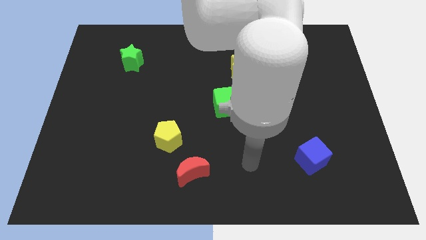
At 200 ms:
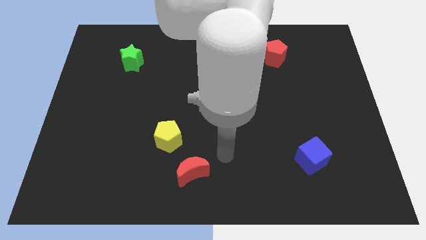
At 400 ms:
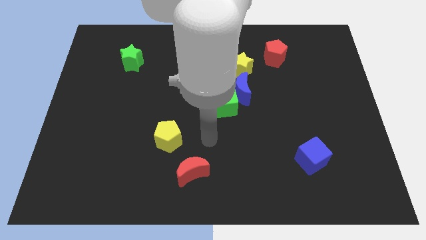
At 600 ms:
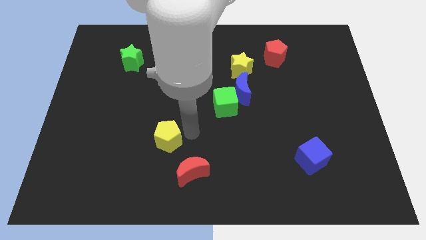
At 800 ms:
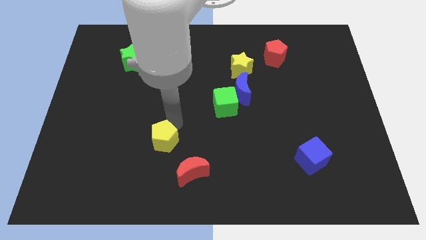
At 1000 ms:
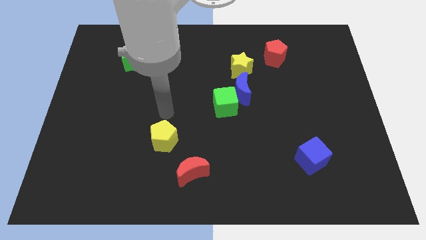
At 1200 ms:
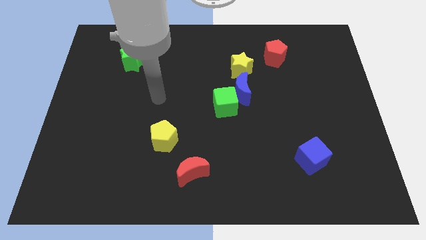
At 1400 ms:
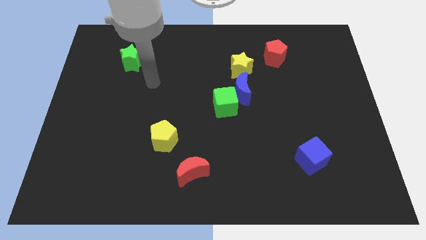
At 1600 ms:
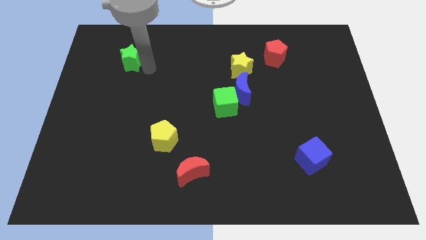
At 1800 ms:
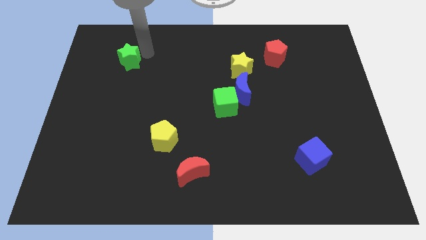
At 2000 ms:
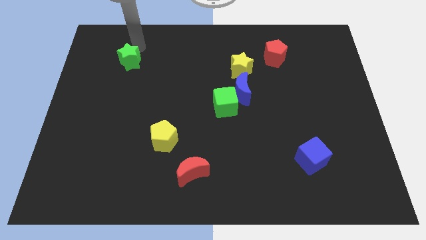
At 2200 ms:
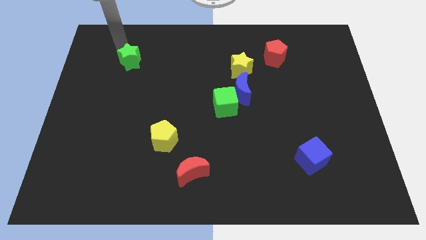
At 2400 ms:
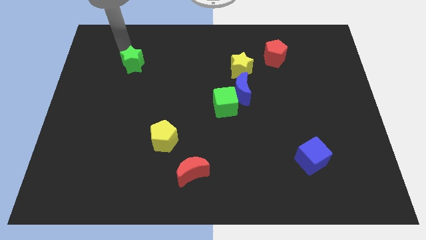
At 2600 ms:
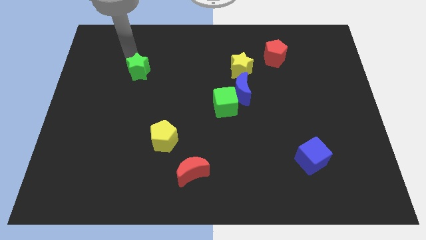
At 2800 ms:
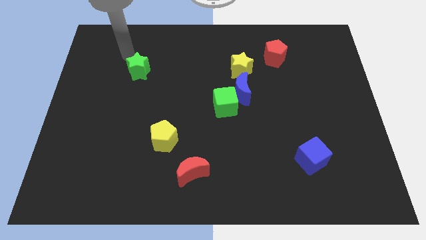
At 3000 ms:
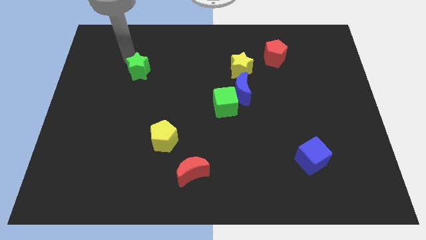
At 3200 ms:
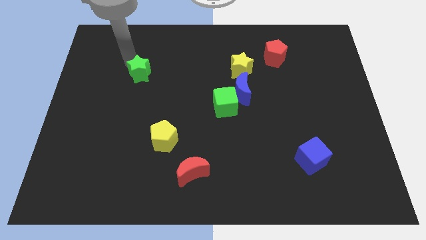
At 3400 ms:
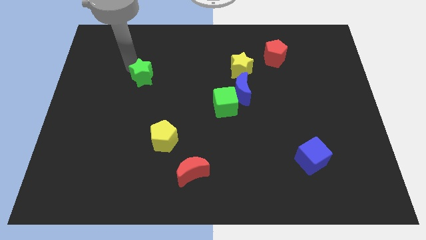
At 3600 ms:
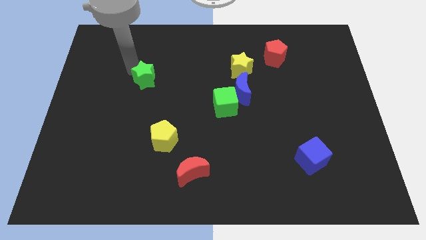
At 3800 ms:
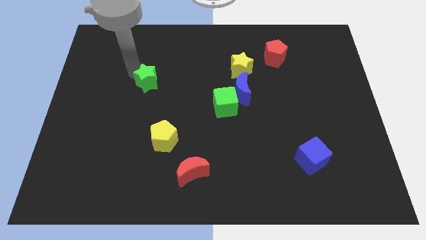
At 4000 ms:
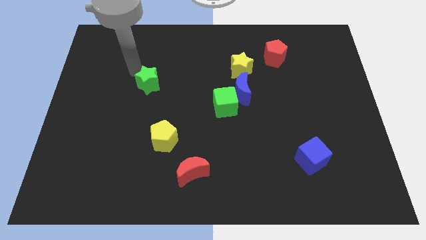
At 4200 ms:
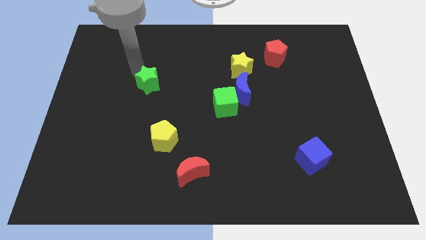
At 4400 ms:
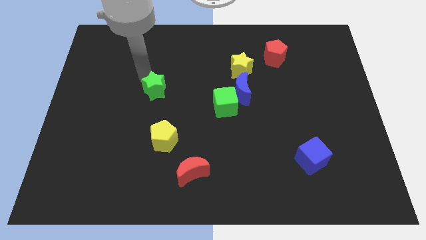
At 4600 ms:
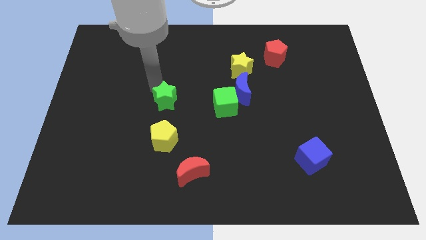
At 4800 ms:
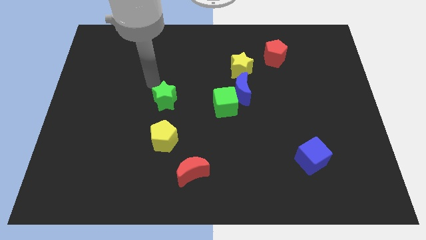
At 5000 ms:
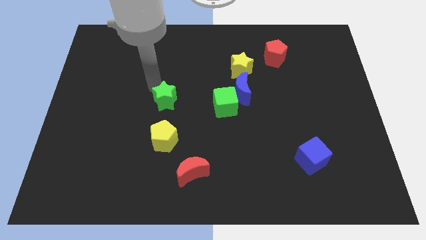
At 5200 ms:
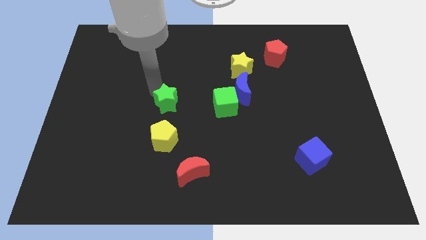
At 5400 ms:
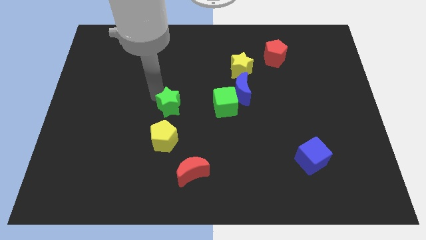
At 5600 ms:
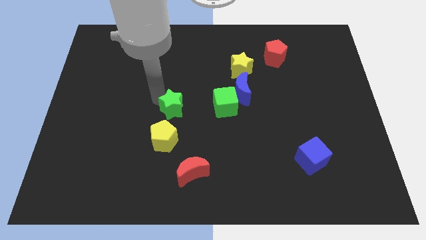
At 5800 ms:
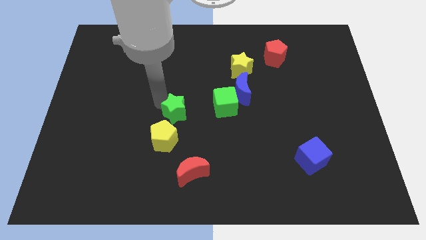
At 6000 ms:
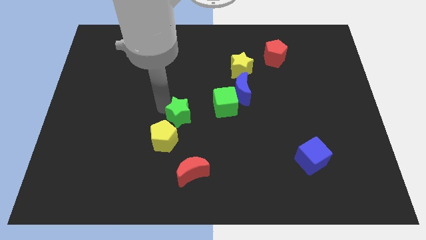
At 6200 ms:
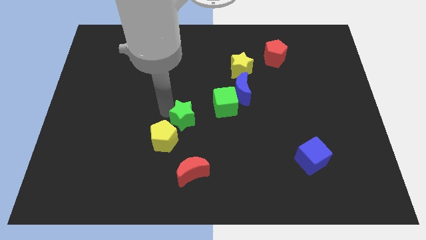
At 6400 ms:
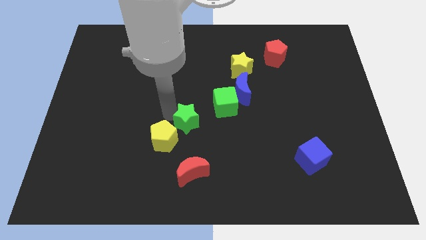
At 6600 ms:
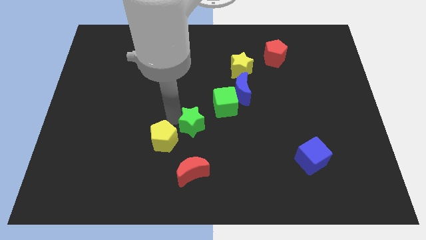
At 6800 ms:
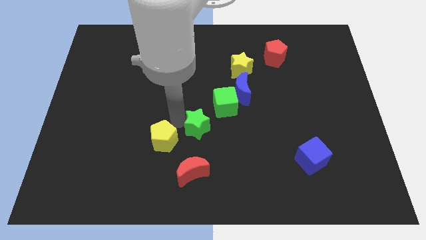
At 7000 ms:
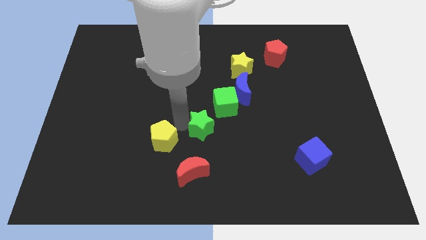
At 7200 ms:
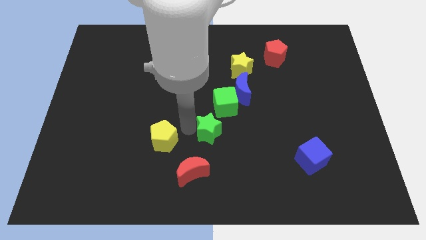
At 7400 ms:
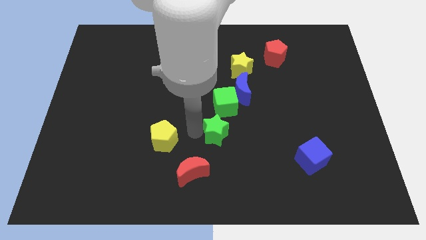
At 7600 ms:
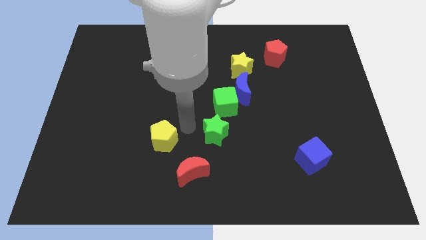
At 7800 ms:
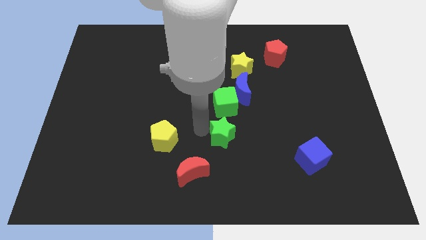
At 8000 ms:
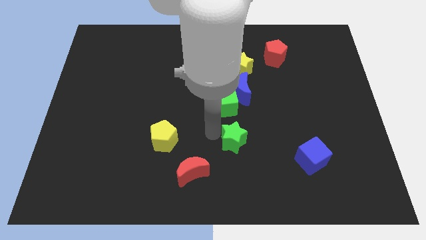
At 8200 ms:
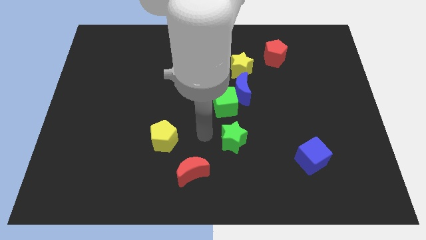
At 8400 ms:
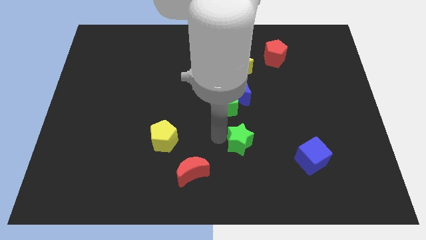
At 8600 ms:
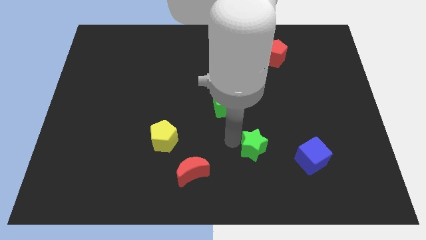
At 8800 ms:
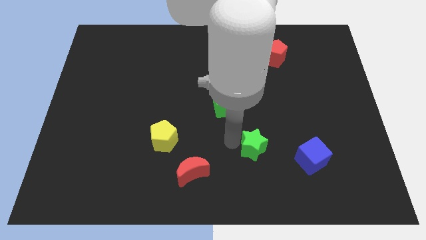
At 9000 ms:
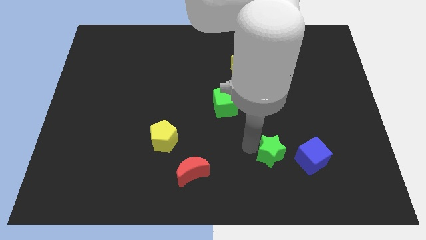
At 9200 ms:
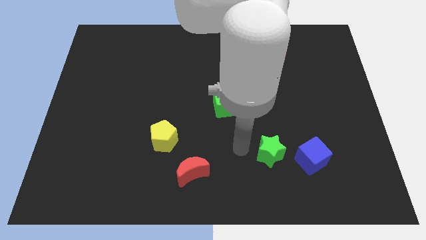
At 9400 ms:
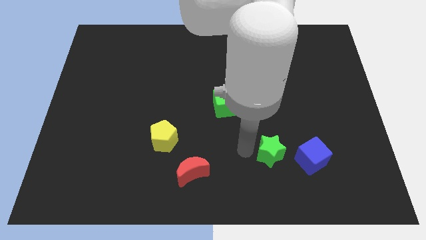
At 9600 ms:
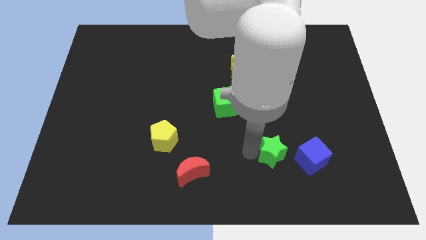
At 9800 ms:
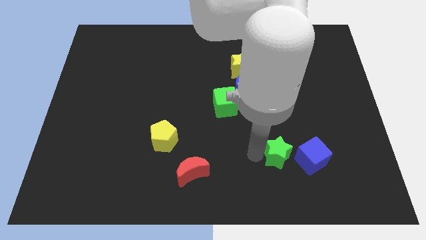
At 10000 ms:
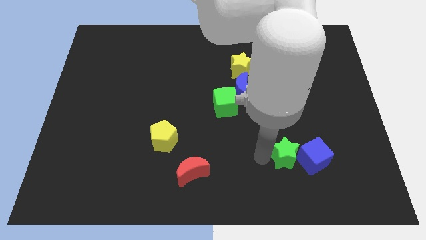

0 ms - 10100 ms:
push the green star close to the blue cube

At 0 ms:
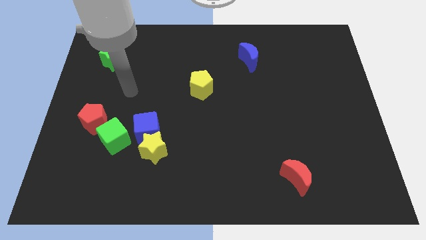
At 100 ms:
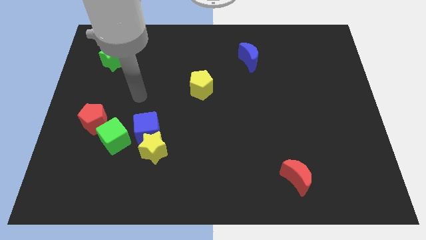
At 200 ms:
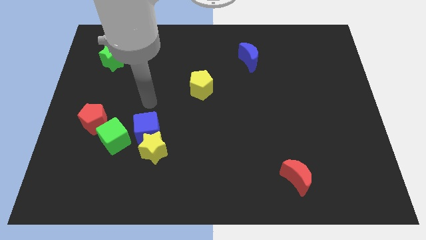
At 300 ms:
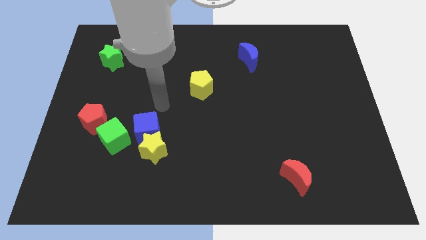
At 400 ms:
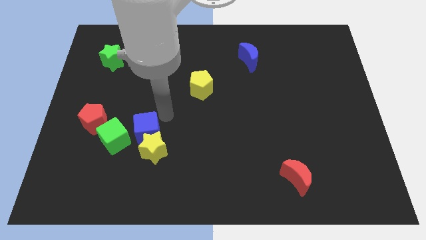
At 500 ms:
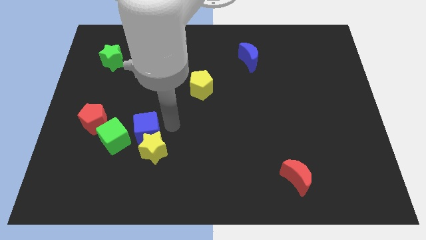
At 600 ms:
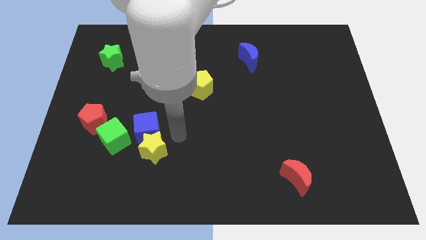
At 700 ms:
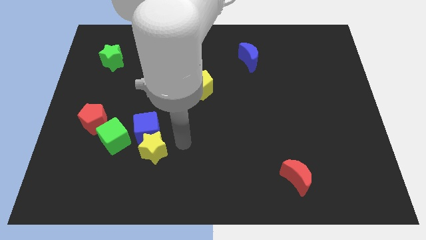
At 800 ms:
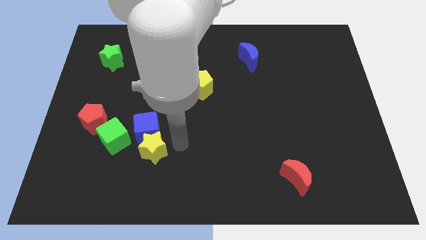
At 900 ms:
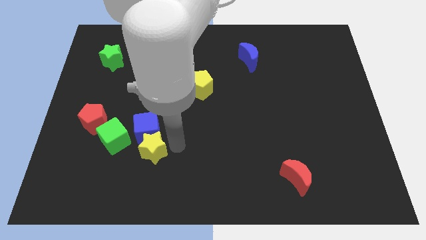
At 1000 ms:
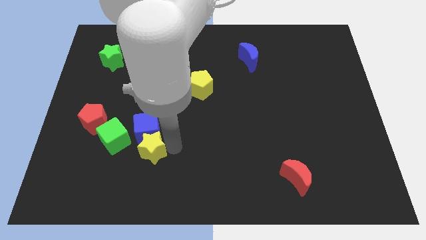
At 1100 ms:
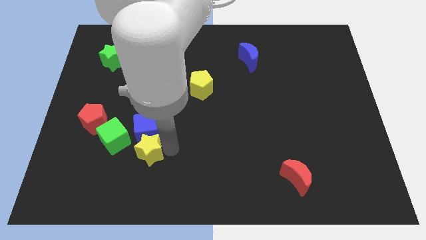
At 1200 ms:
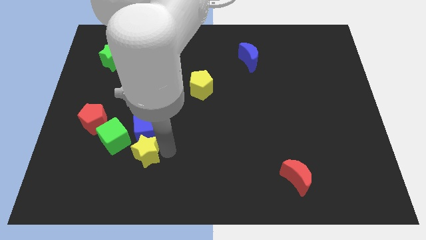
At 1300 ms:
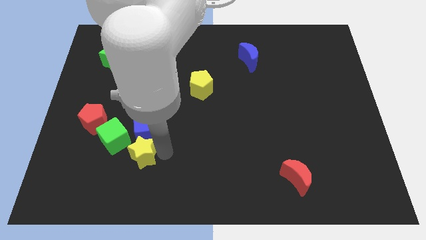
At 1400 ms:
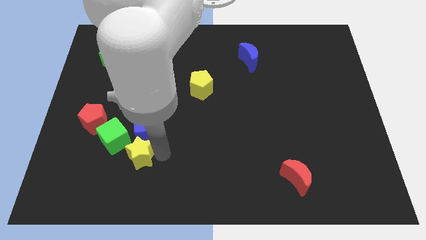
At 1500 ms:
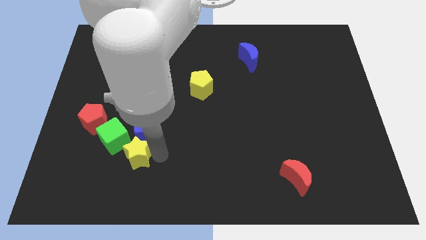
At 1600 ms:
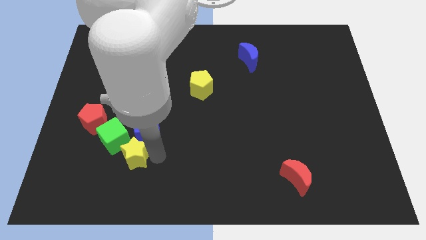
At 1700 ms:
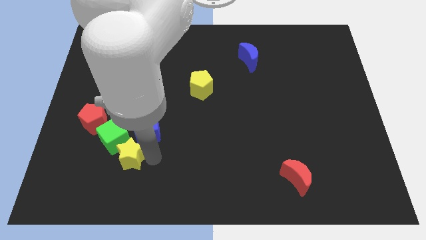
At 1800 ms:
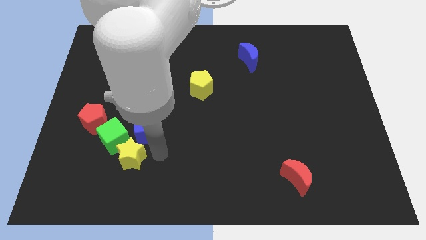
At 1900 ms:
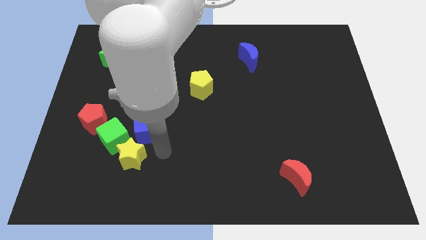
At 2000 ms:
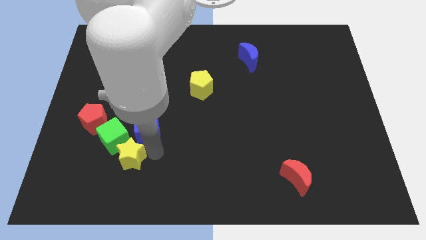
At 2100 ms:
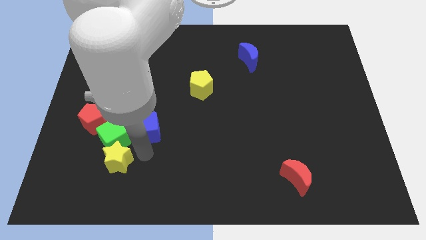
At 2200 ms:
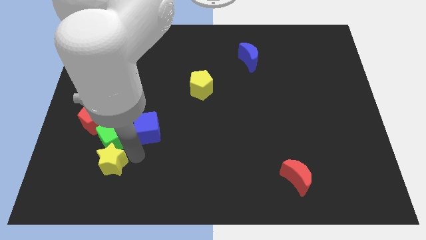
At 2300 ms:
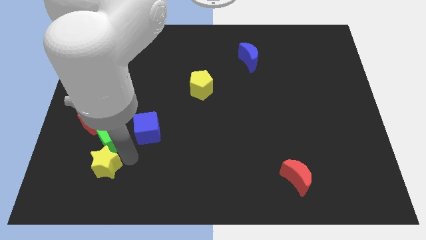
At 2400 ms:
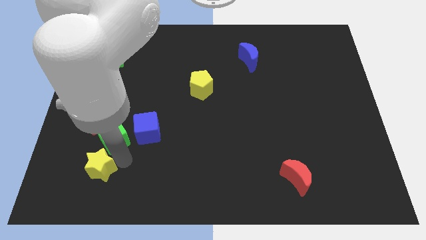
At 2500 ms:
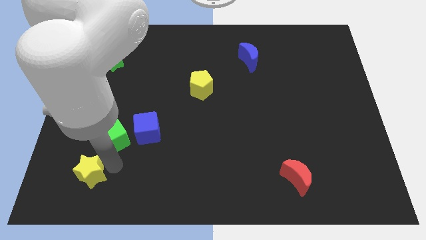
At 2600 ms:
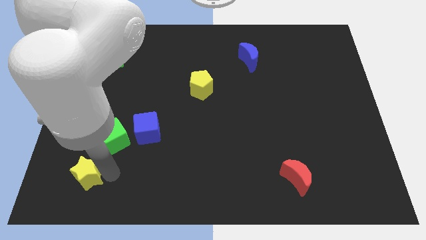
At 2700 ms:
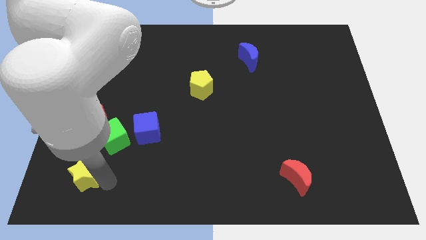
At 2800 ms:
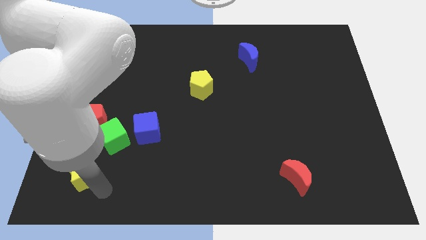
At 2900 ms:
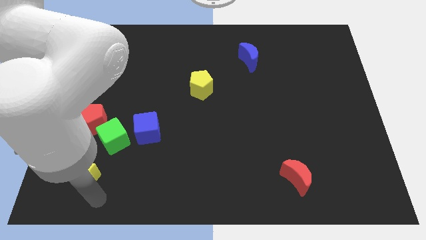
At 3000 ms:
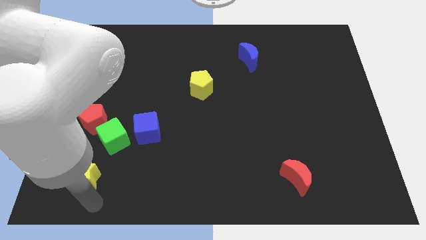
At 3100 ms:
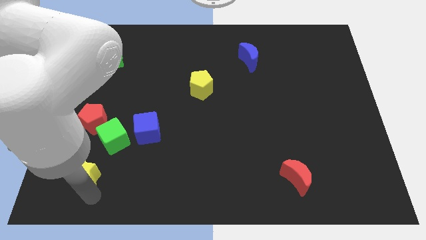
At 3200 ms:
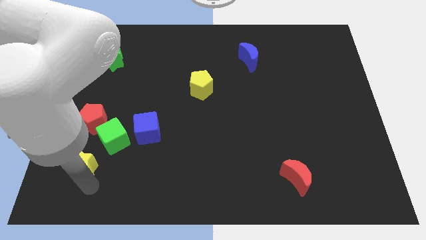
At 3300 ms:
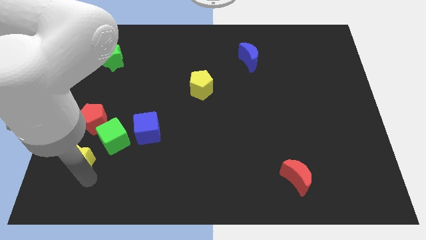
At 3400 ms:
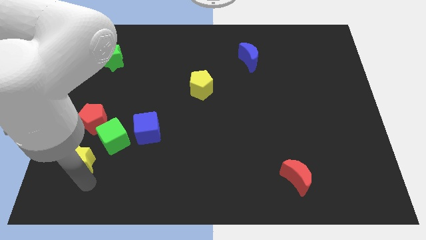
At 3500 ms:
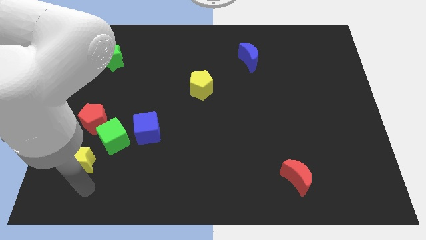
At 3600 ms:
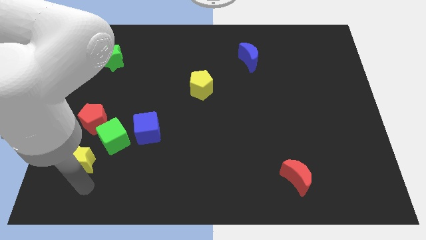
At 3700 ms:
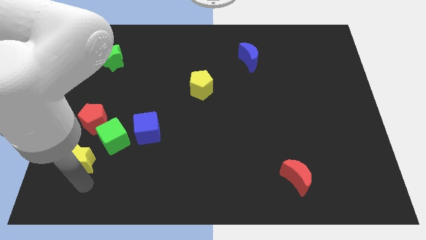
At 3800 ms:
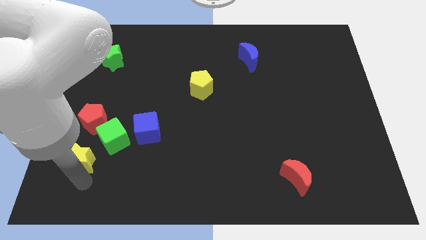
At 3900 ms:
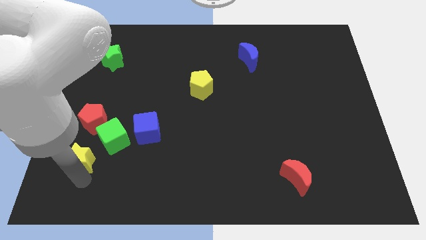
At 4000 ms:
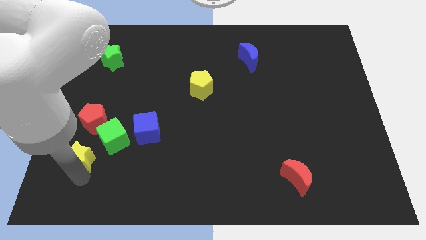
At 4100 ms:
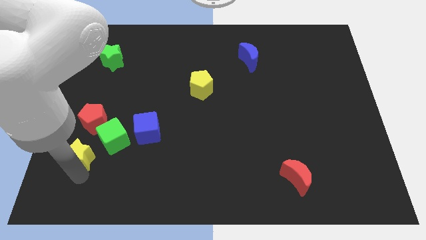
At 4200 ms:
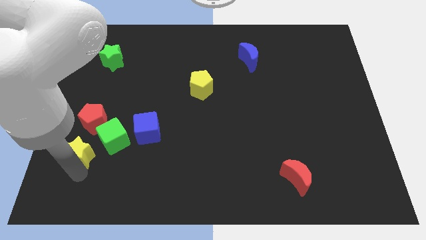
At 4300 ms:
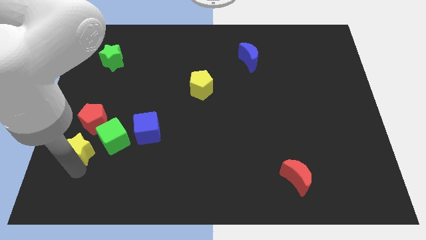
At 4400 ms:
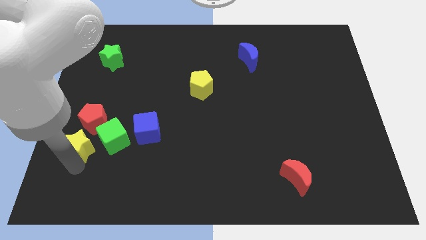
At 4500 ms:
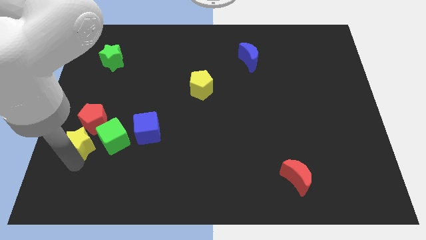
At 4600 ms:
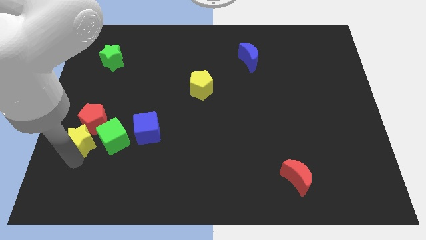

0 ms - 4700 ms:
move the yellow star close to the red pentagon
